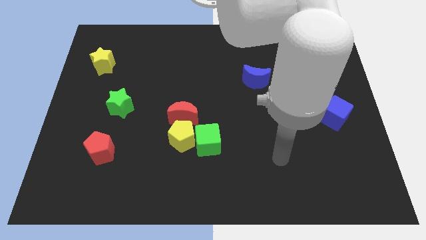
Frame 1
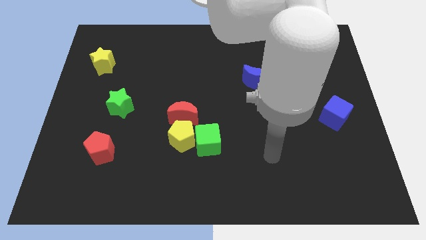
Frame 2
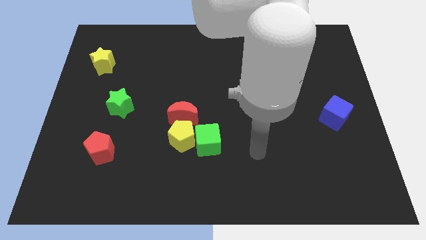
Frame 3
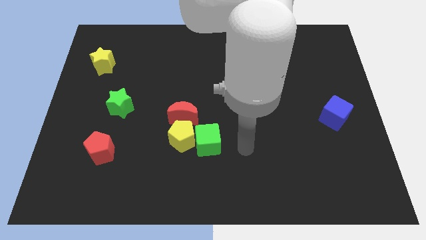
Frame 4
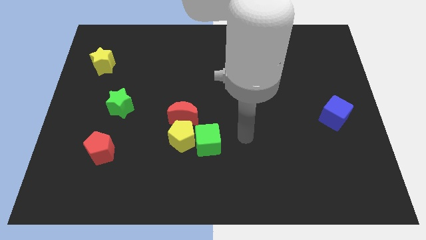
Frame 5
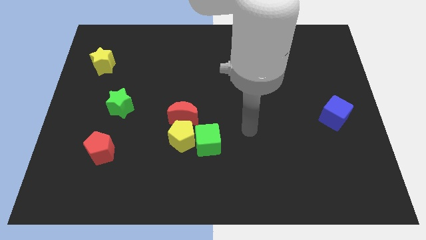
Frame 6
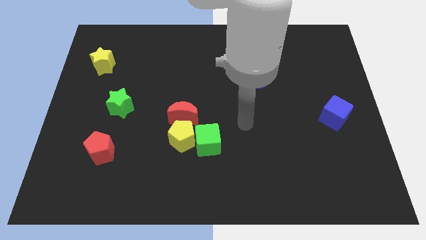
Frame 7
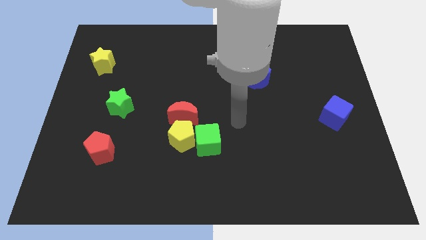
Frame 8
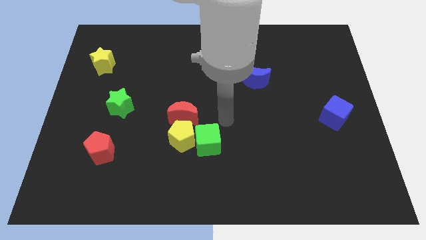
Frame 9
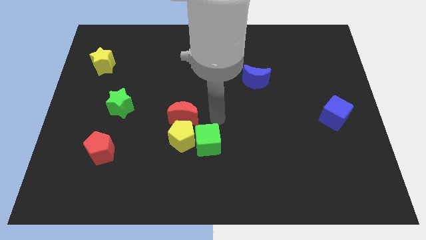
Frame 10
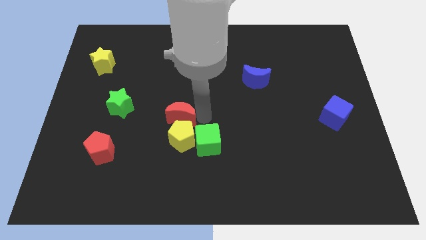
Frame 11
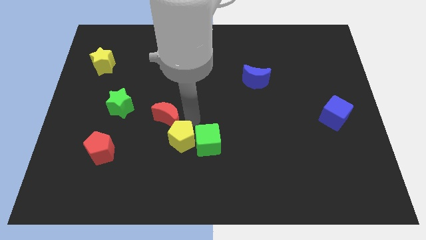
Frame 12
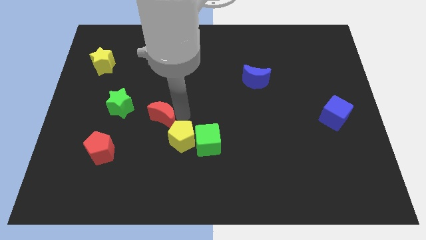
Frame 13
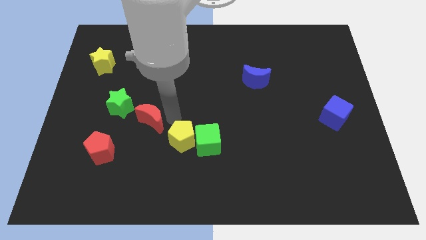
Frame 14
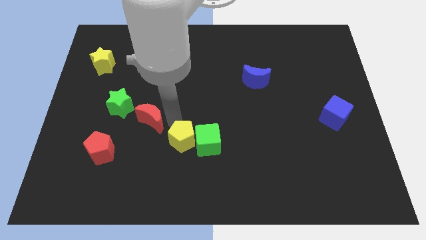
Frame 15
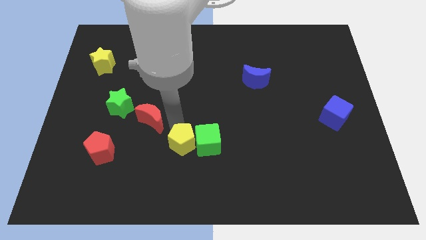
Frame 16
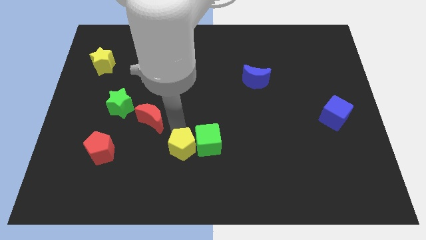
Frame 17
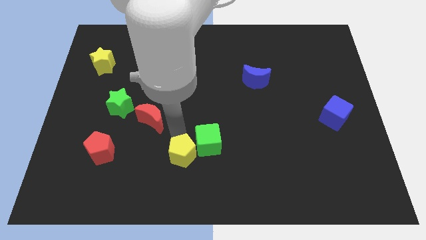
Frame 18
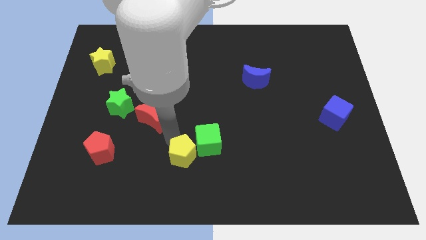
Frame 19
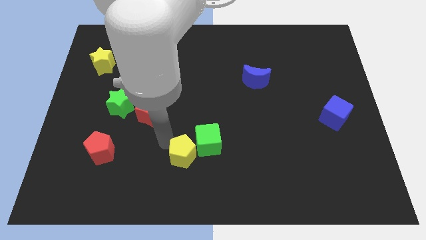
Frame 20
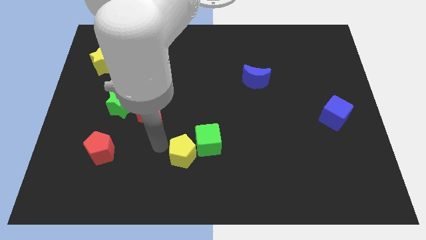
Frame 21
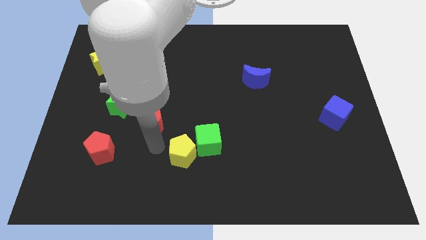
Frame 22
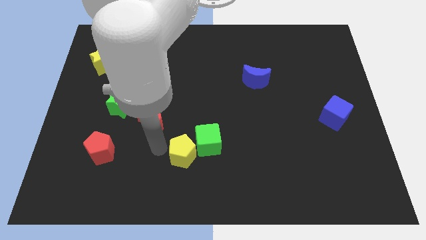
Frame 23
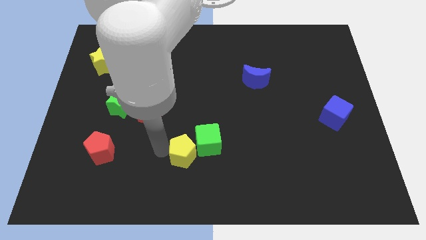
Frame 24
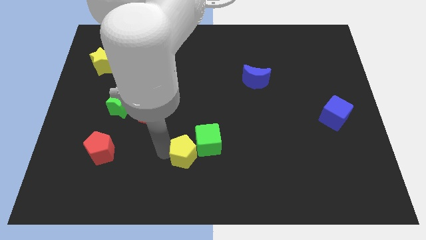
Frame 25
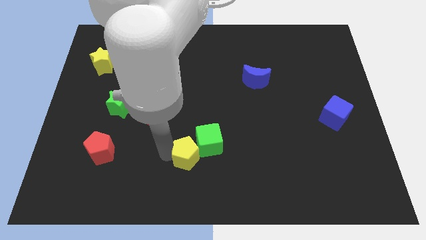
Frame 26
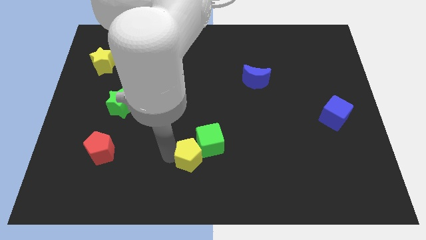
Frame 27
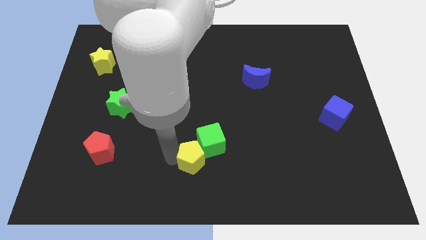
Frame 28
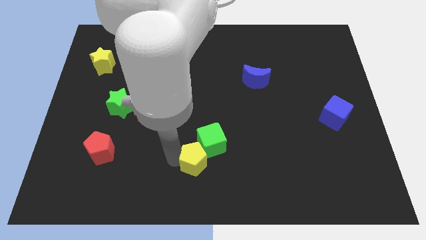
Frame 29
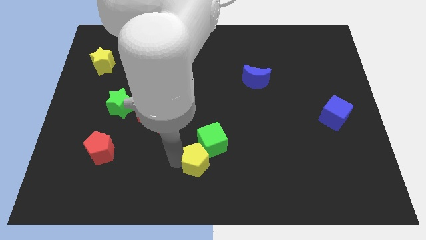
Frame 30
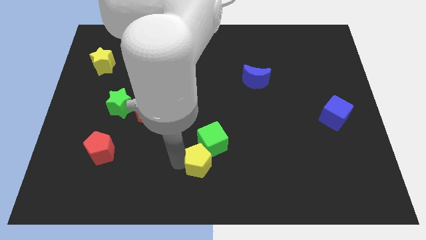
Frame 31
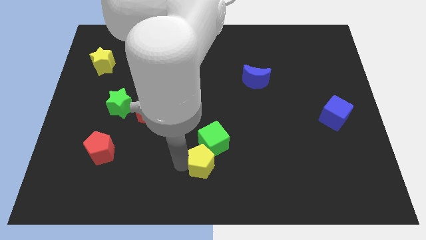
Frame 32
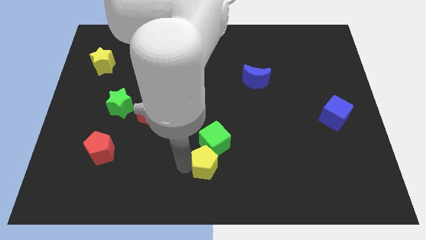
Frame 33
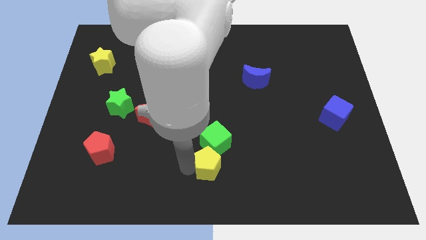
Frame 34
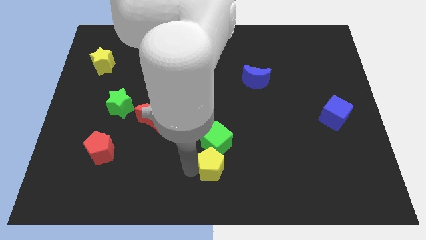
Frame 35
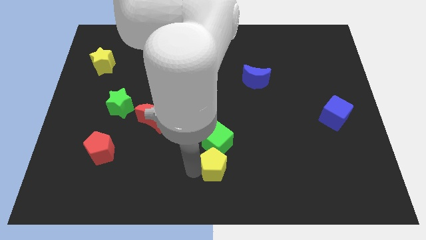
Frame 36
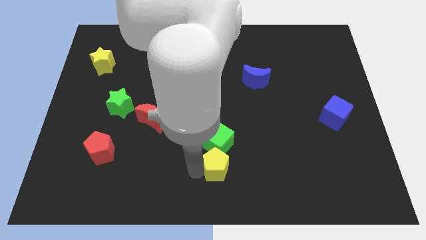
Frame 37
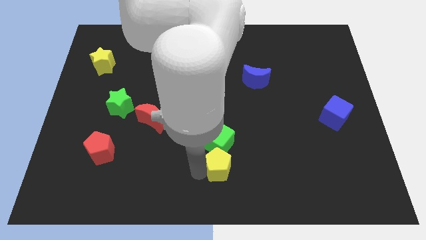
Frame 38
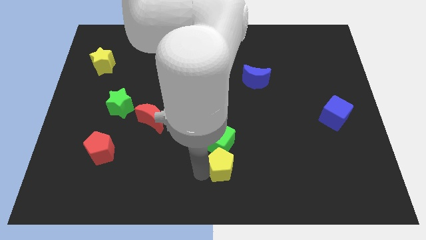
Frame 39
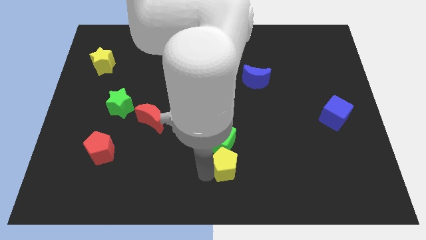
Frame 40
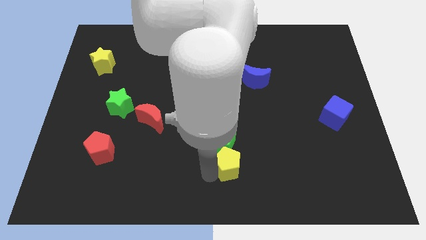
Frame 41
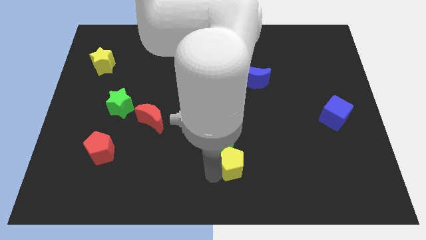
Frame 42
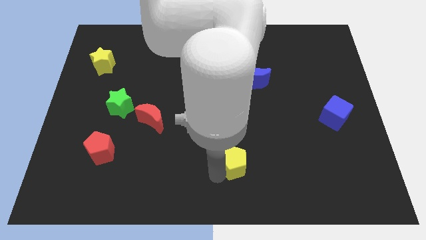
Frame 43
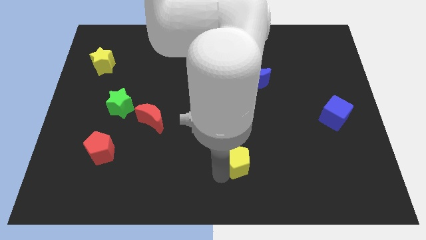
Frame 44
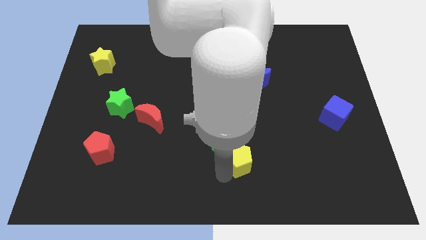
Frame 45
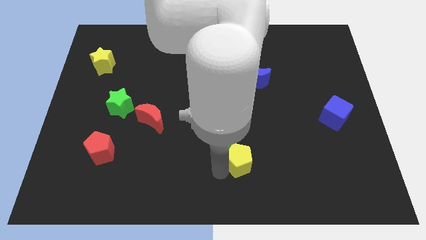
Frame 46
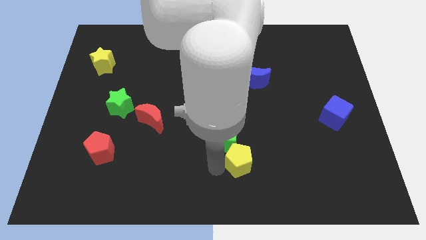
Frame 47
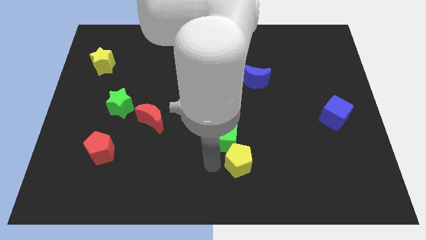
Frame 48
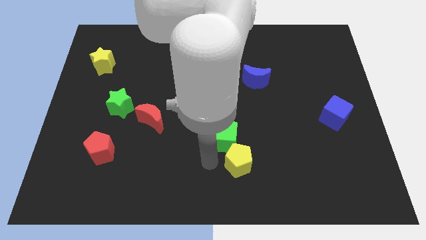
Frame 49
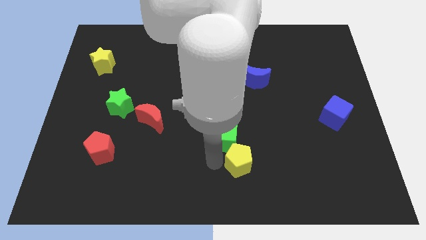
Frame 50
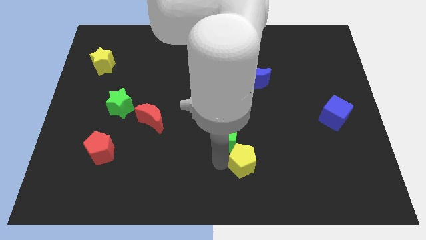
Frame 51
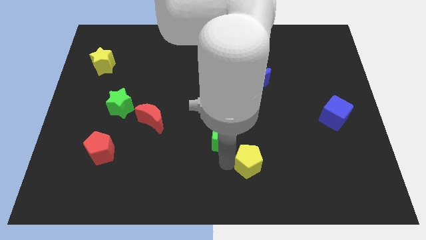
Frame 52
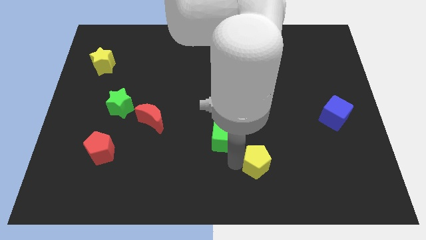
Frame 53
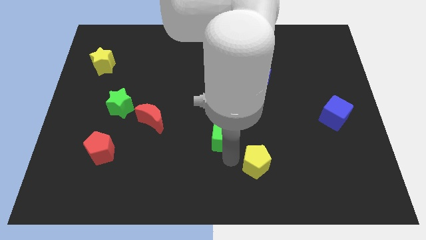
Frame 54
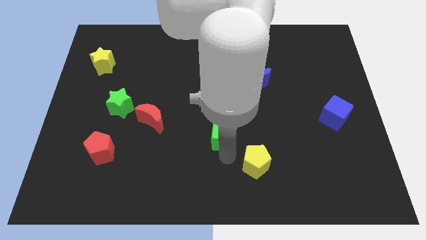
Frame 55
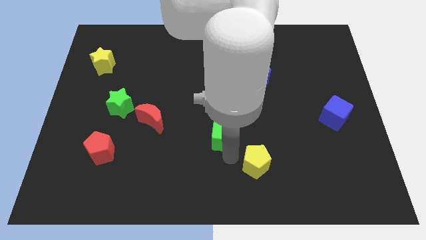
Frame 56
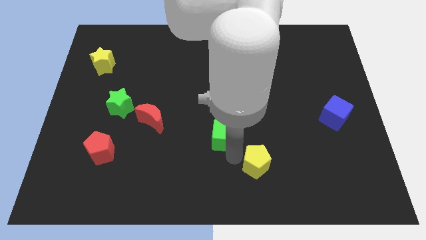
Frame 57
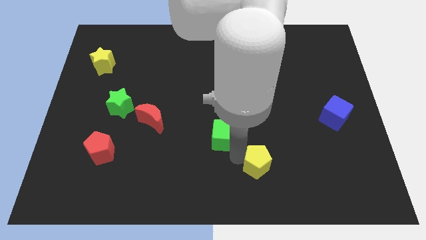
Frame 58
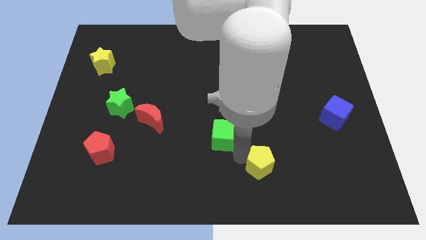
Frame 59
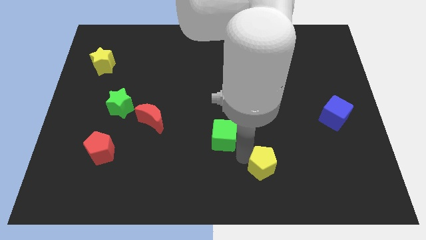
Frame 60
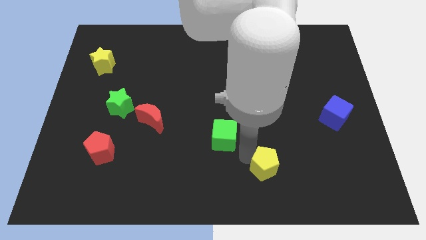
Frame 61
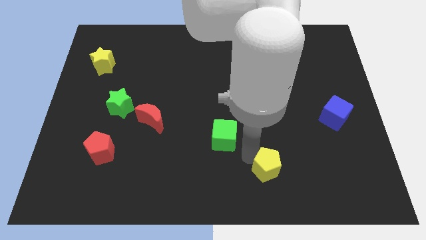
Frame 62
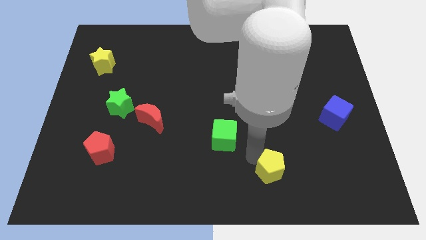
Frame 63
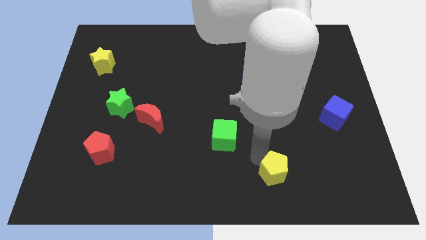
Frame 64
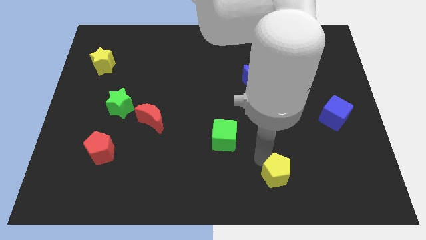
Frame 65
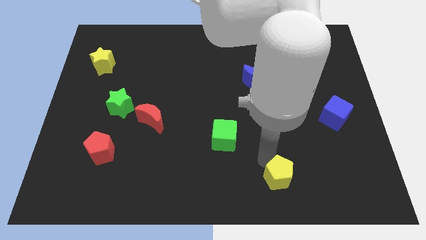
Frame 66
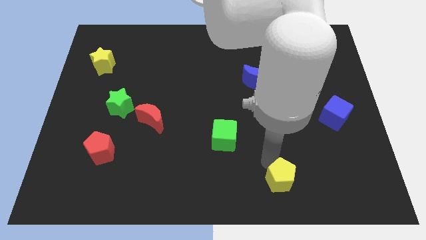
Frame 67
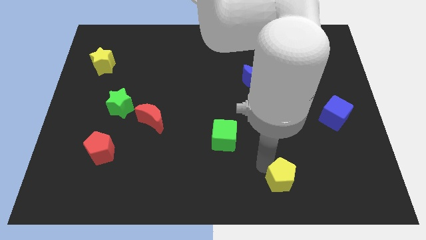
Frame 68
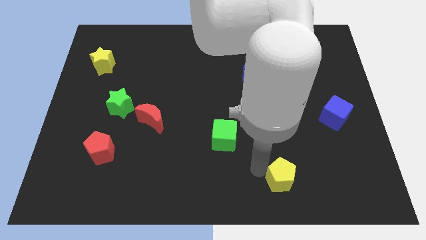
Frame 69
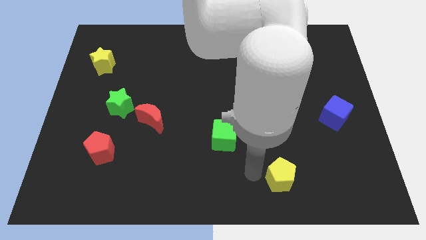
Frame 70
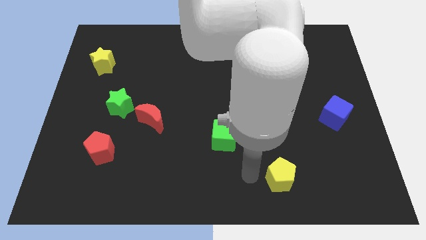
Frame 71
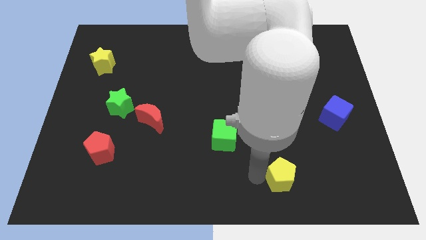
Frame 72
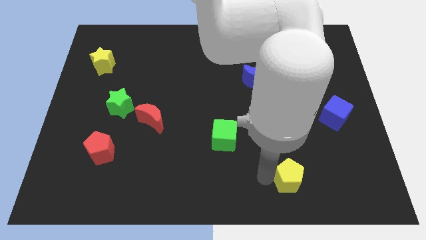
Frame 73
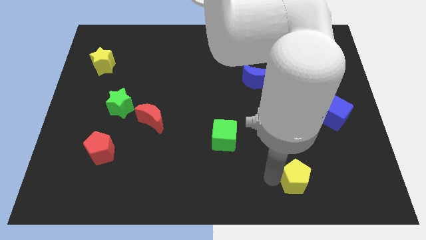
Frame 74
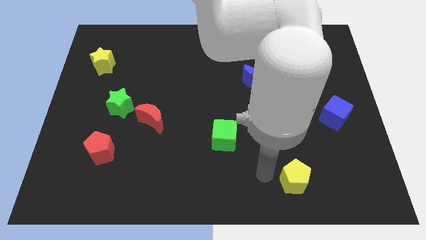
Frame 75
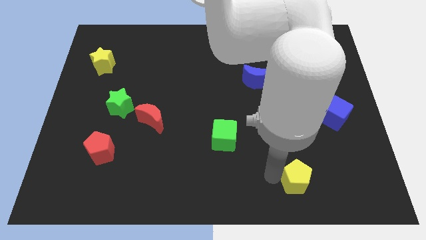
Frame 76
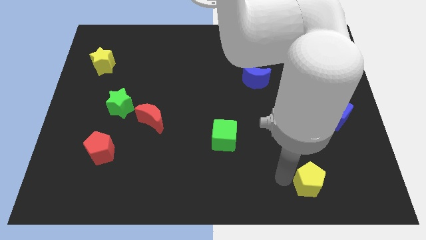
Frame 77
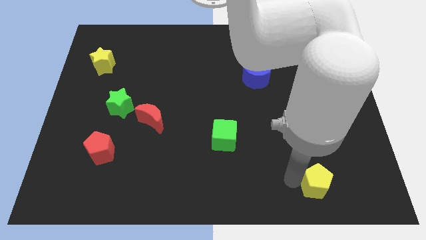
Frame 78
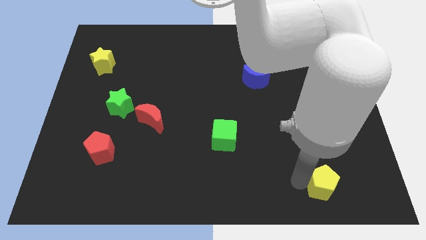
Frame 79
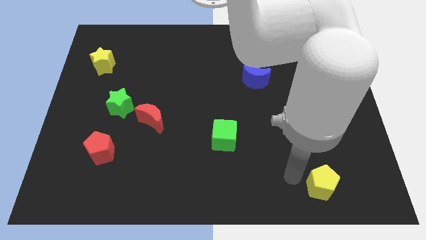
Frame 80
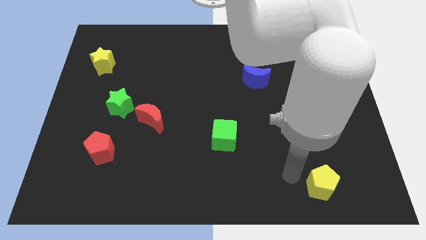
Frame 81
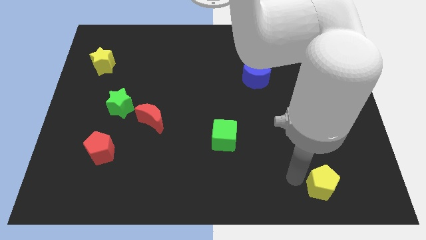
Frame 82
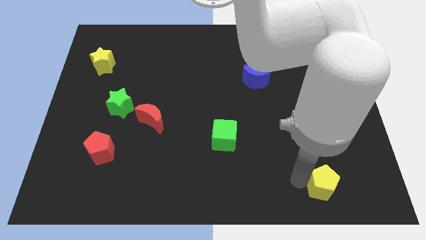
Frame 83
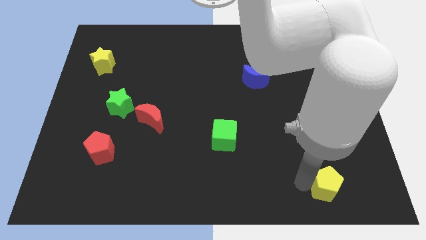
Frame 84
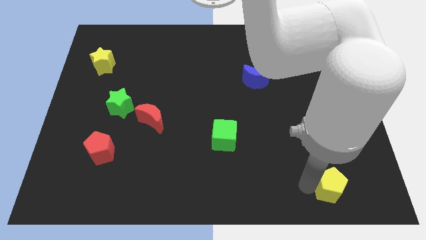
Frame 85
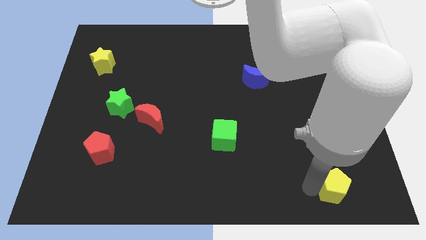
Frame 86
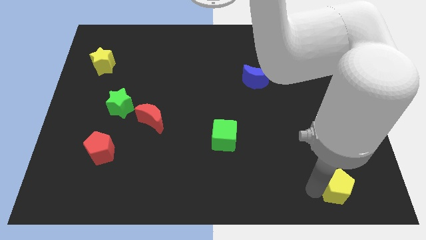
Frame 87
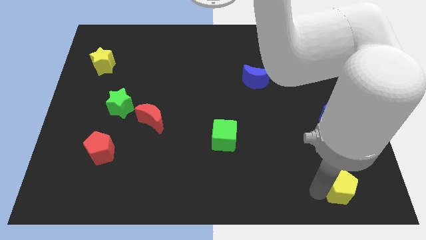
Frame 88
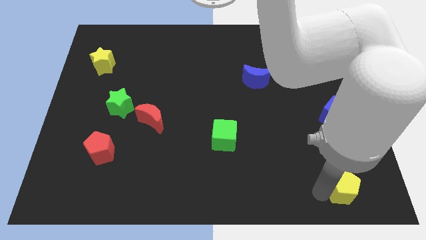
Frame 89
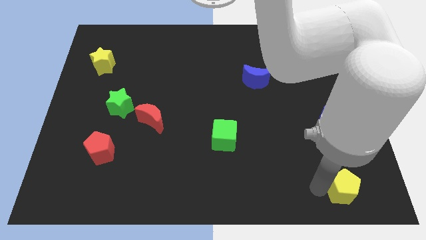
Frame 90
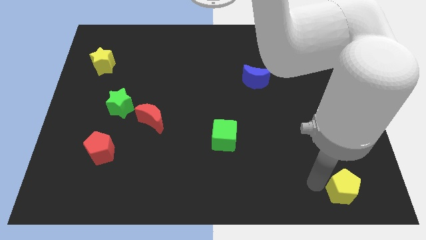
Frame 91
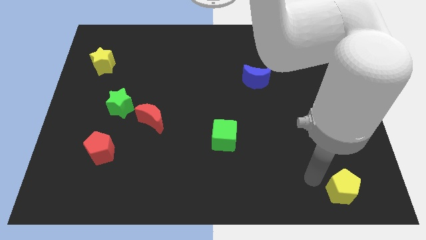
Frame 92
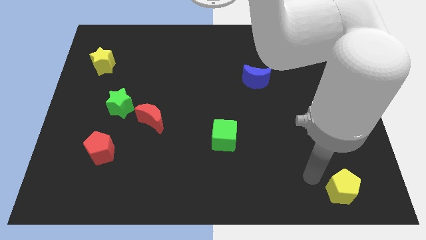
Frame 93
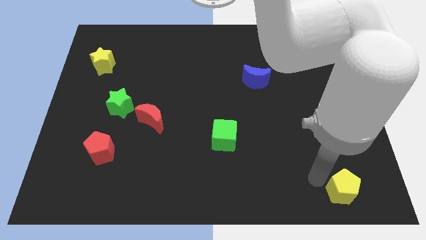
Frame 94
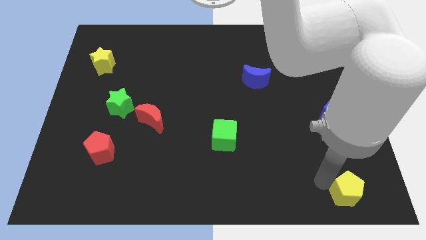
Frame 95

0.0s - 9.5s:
move the yellow pentagon to the lower right corner
